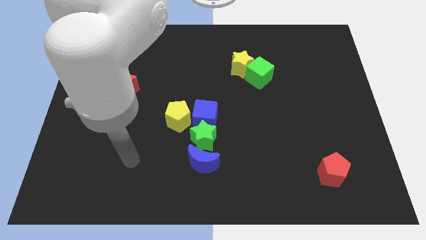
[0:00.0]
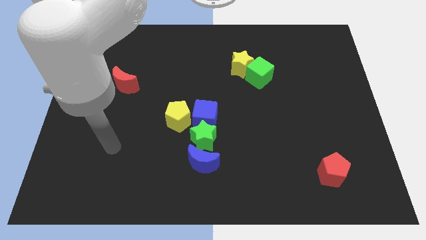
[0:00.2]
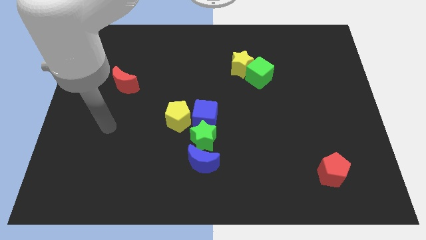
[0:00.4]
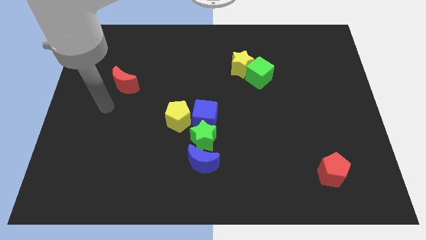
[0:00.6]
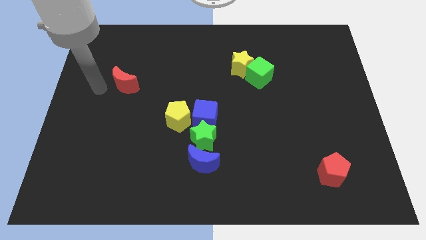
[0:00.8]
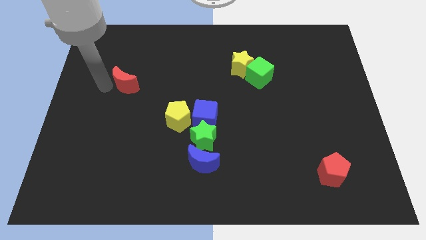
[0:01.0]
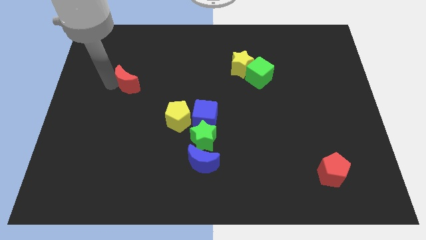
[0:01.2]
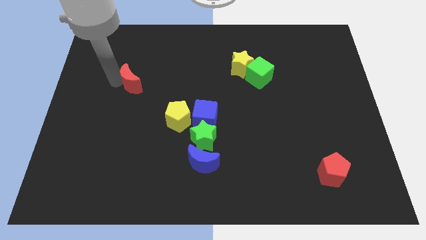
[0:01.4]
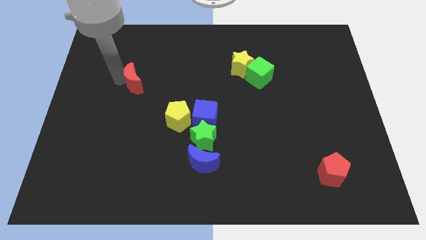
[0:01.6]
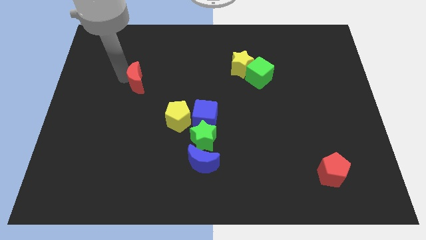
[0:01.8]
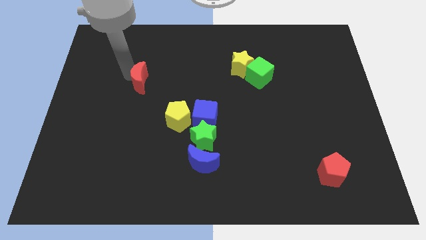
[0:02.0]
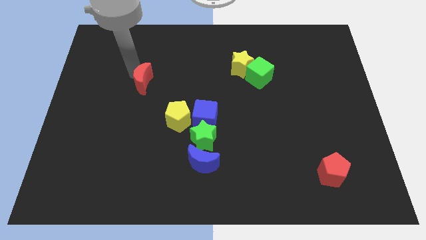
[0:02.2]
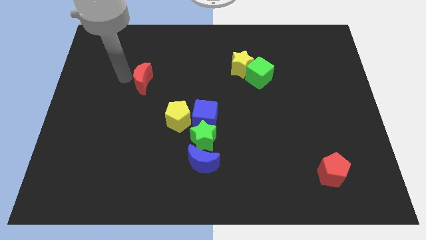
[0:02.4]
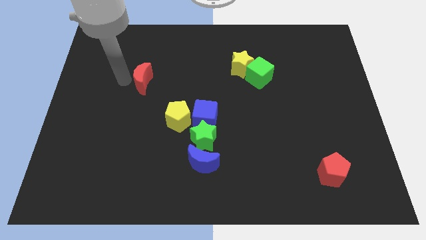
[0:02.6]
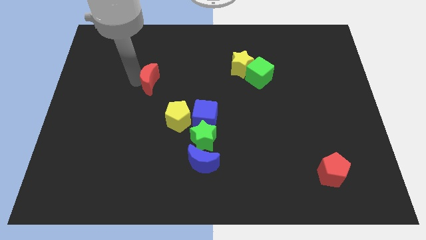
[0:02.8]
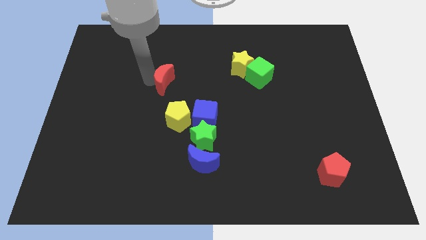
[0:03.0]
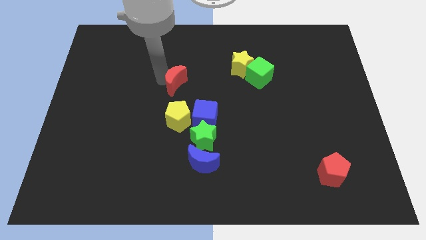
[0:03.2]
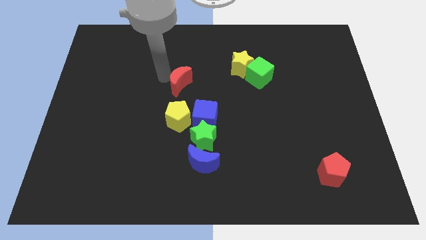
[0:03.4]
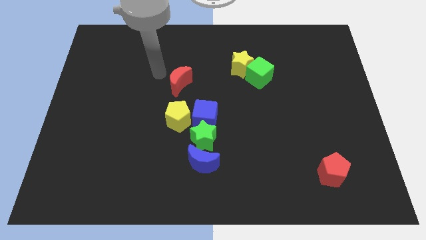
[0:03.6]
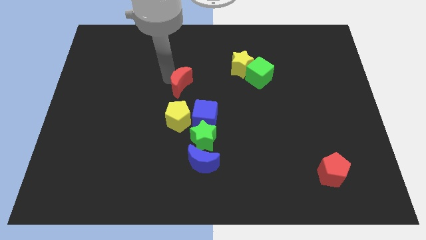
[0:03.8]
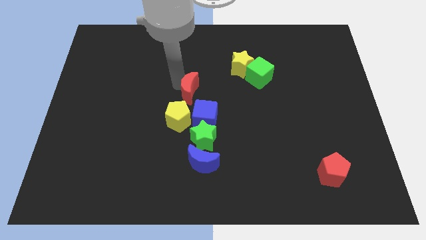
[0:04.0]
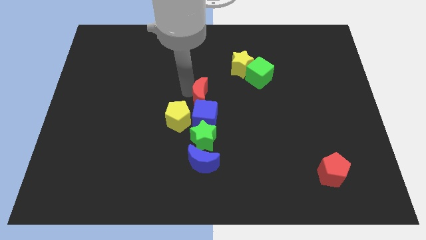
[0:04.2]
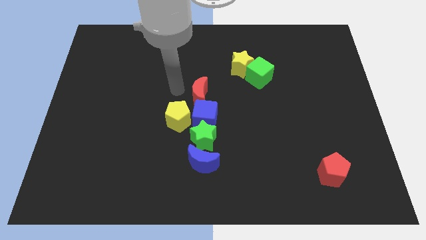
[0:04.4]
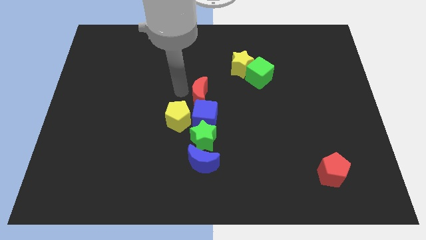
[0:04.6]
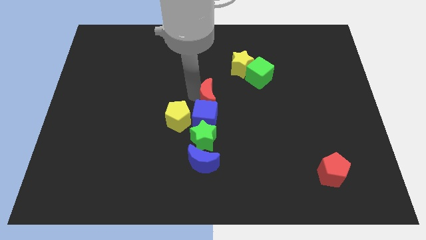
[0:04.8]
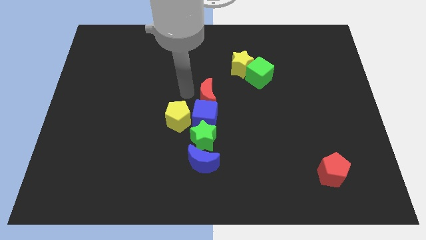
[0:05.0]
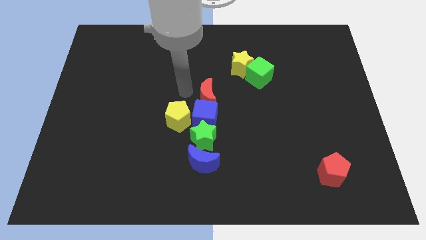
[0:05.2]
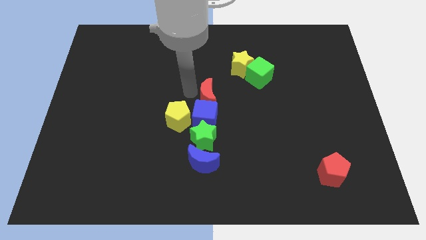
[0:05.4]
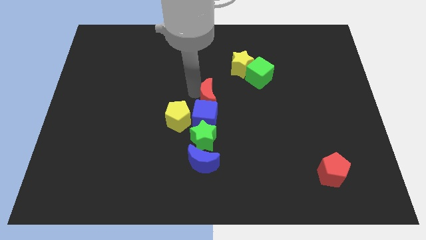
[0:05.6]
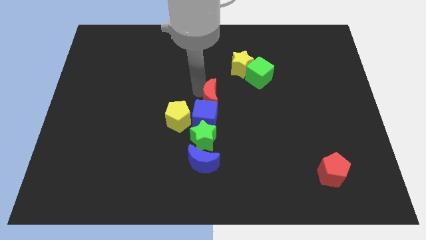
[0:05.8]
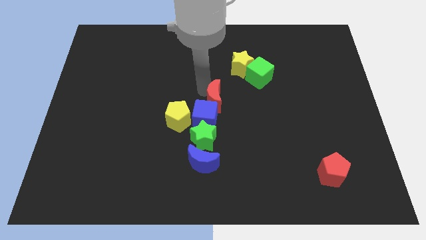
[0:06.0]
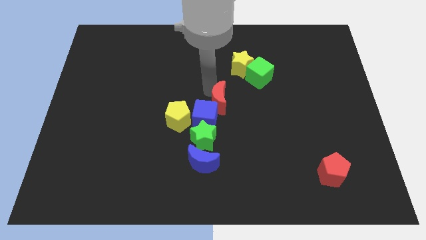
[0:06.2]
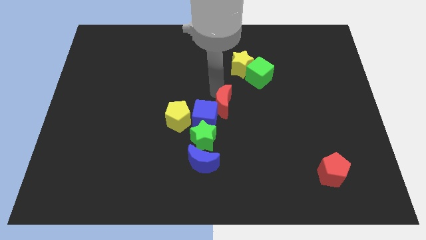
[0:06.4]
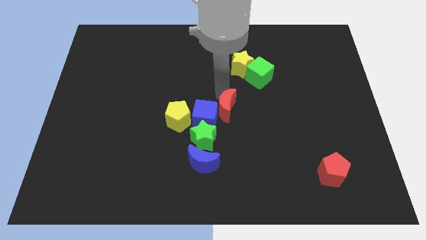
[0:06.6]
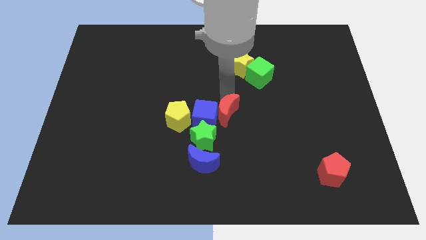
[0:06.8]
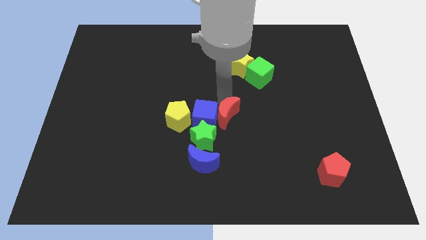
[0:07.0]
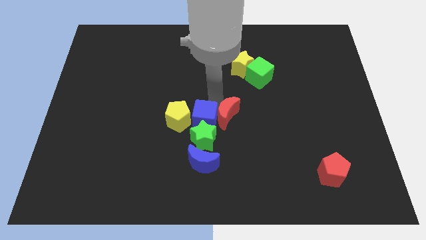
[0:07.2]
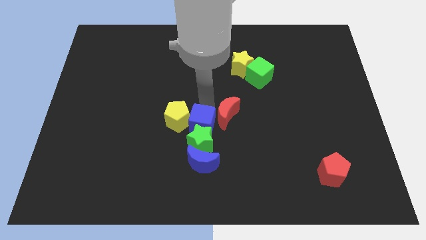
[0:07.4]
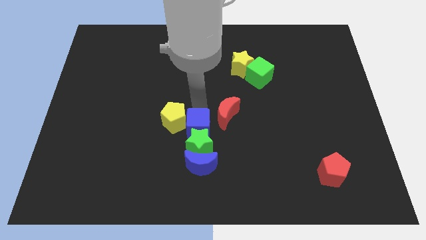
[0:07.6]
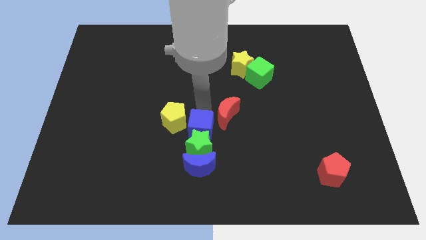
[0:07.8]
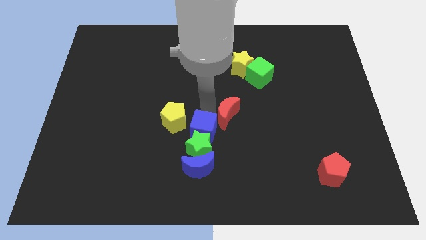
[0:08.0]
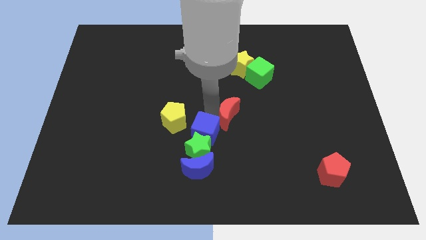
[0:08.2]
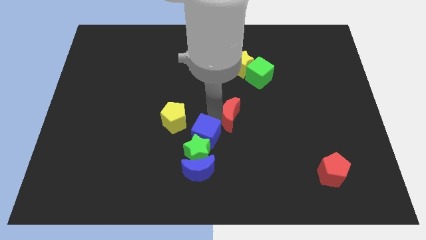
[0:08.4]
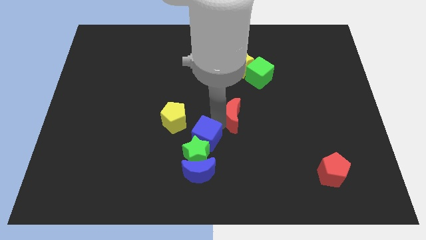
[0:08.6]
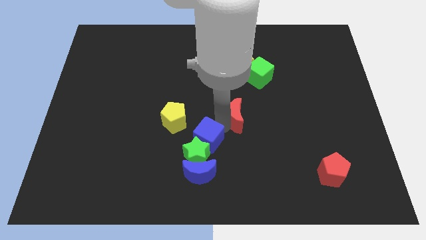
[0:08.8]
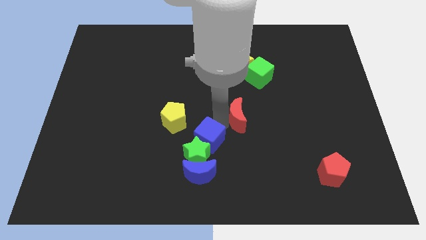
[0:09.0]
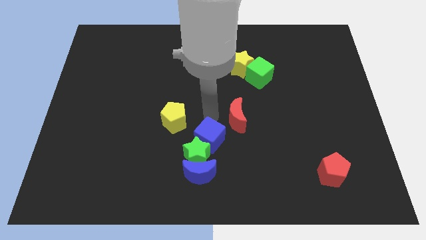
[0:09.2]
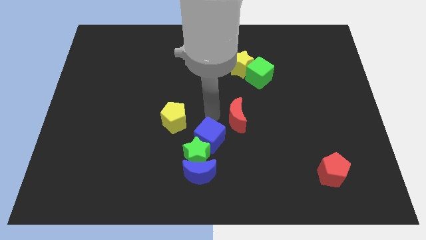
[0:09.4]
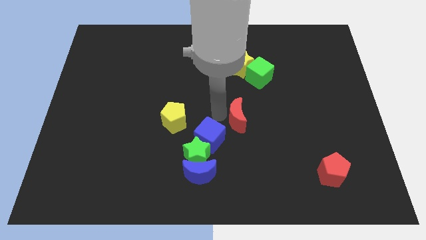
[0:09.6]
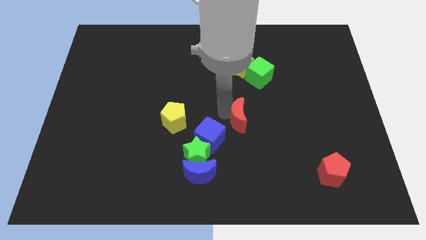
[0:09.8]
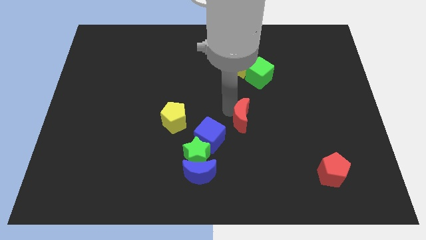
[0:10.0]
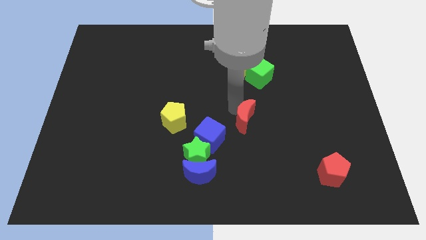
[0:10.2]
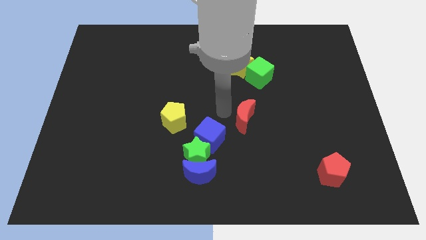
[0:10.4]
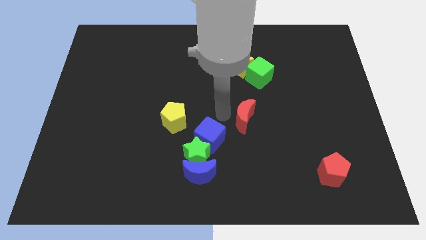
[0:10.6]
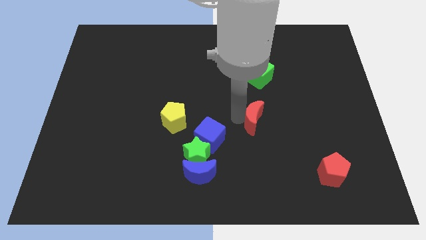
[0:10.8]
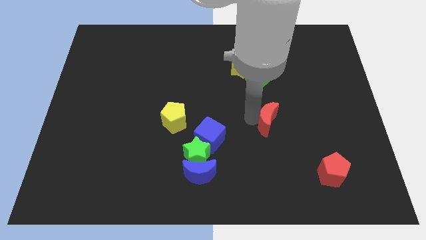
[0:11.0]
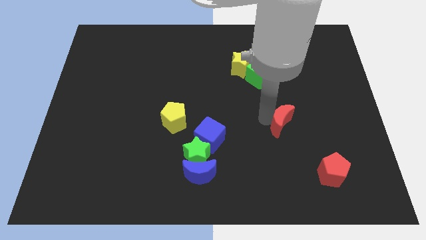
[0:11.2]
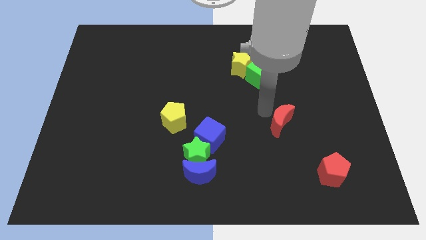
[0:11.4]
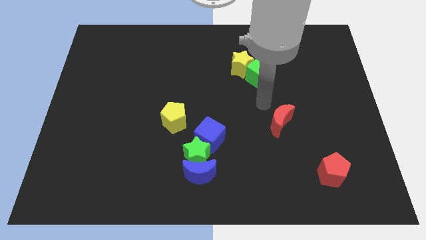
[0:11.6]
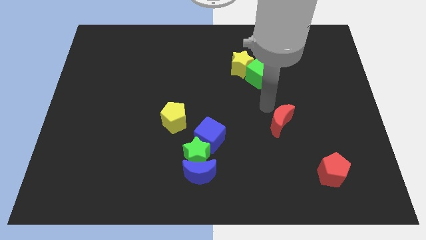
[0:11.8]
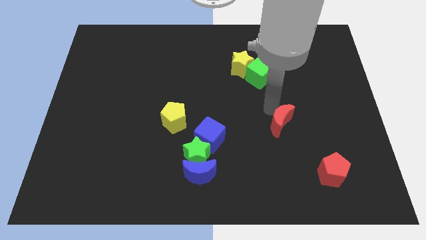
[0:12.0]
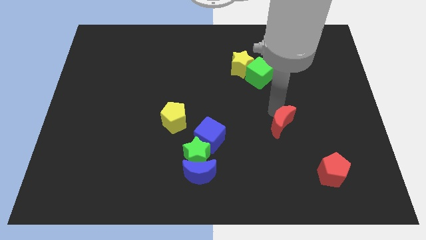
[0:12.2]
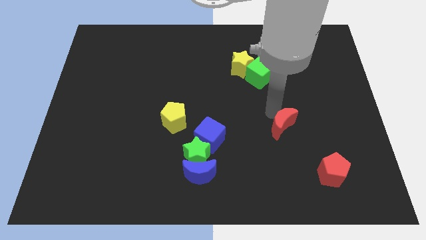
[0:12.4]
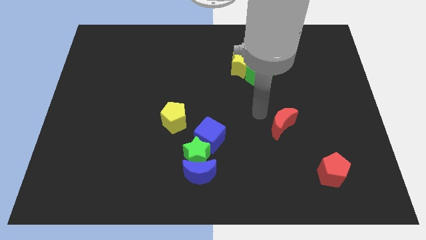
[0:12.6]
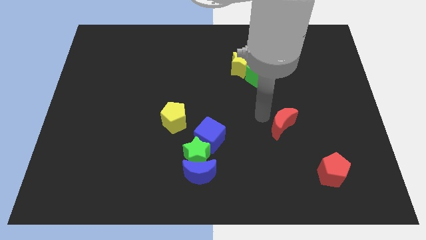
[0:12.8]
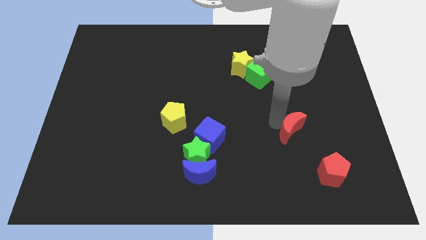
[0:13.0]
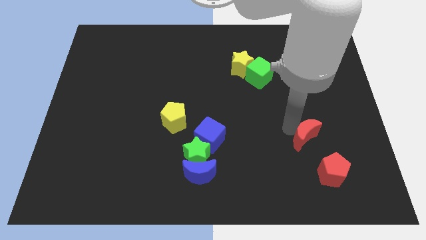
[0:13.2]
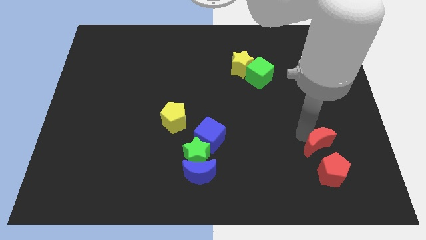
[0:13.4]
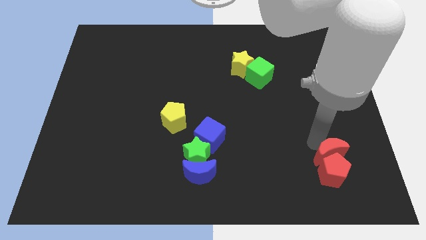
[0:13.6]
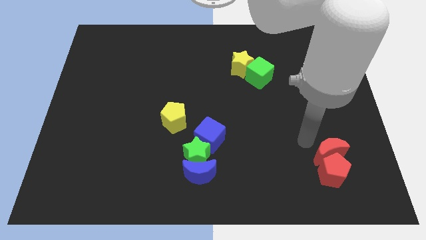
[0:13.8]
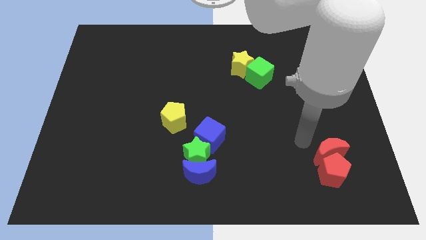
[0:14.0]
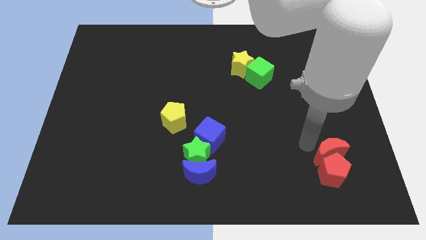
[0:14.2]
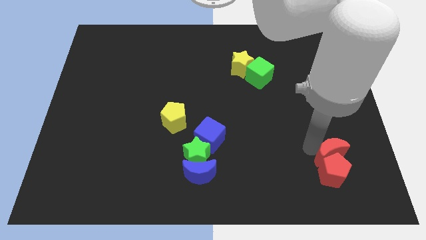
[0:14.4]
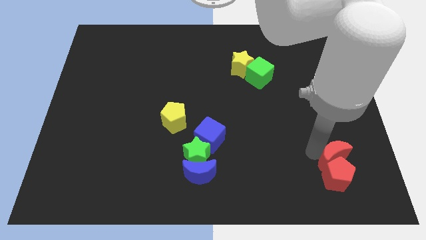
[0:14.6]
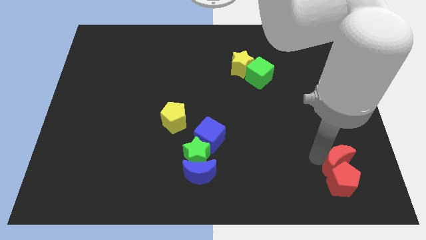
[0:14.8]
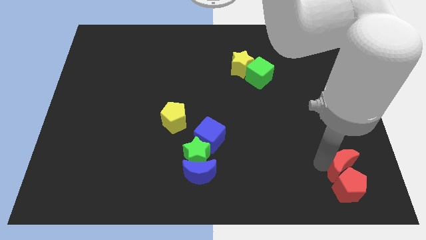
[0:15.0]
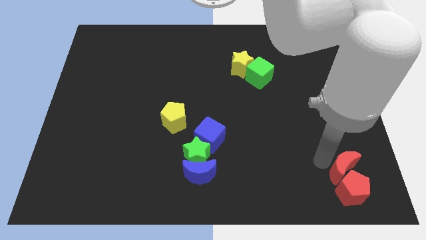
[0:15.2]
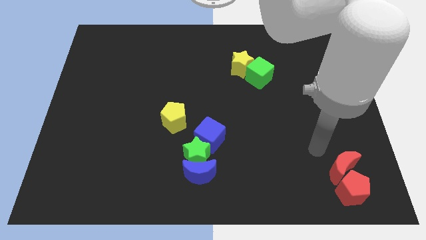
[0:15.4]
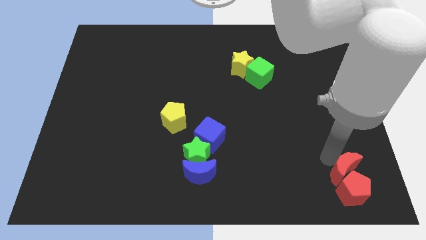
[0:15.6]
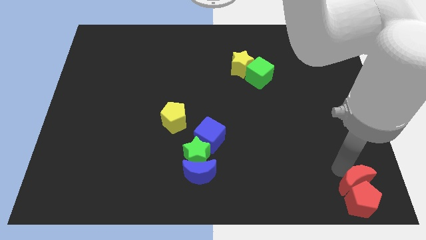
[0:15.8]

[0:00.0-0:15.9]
move the red moon to the bottom right
